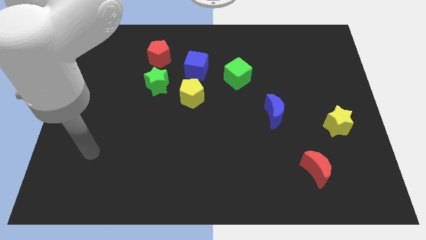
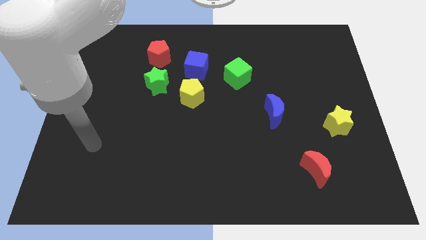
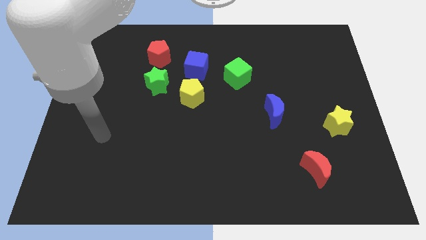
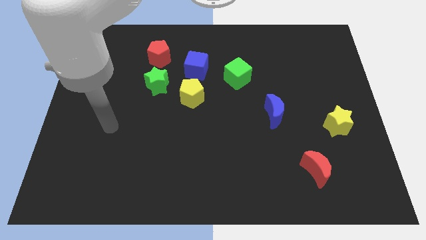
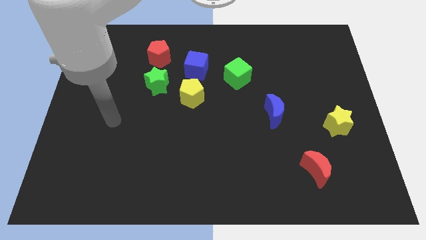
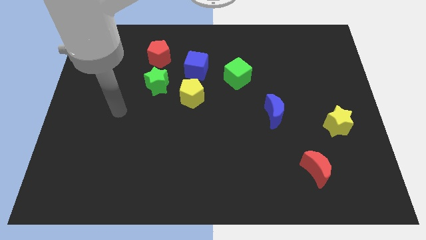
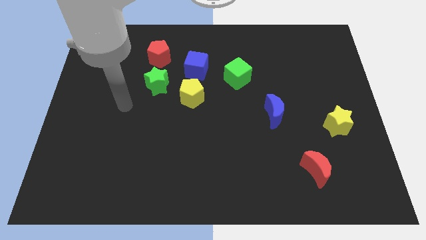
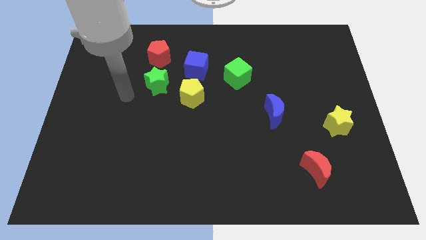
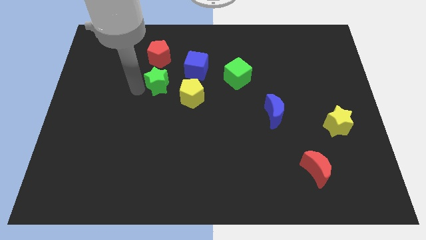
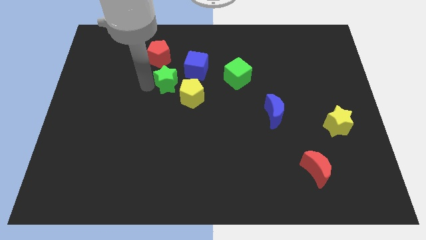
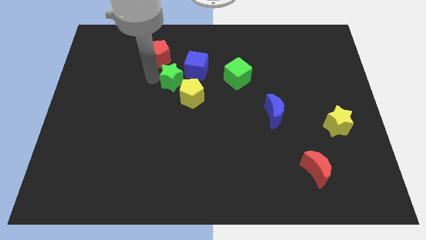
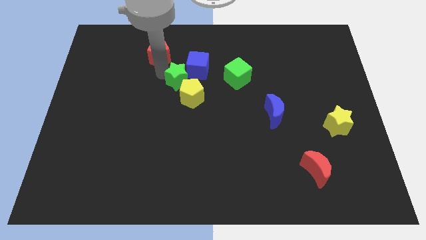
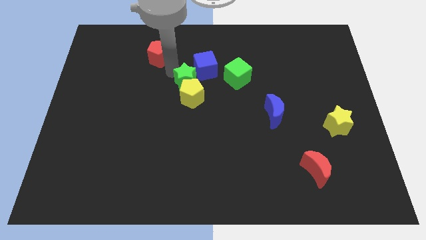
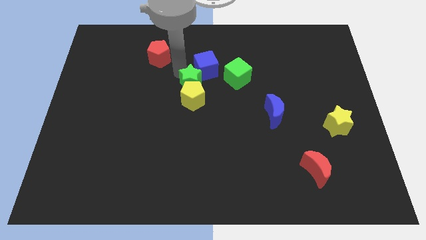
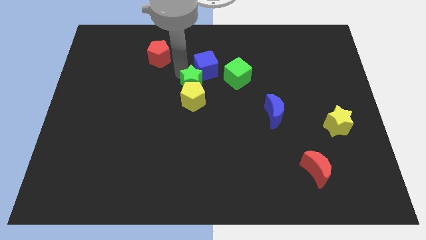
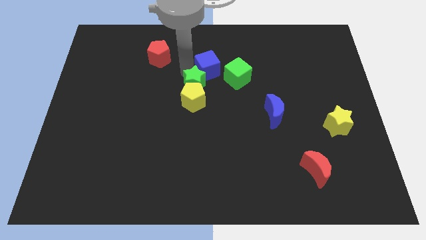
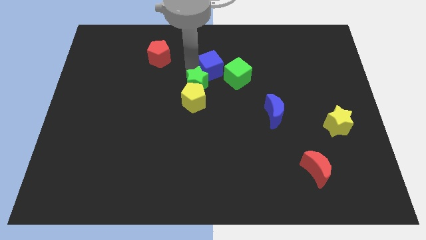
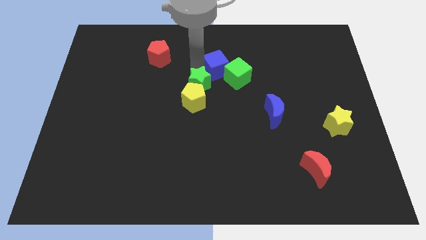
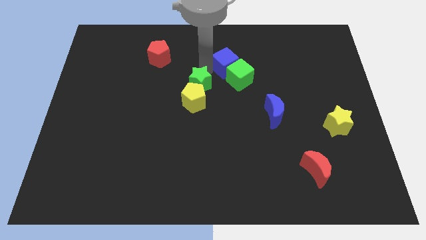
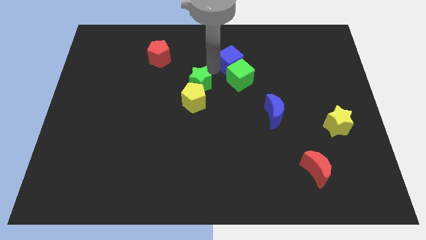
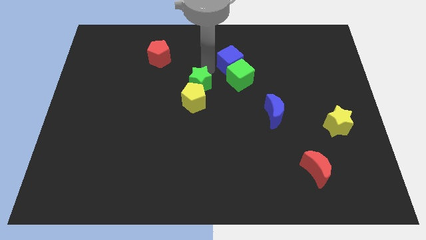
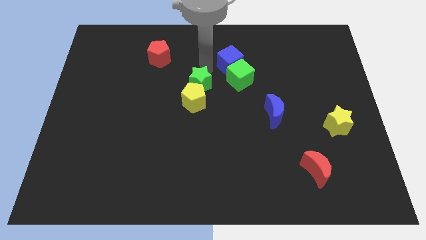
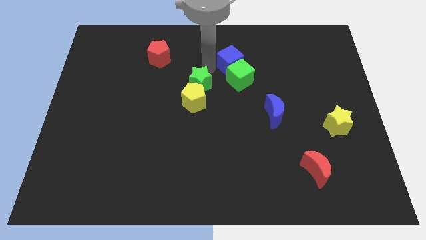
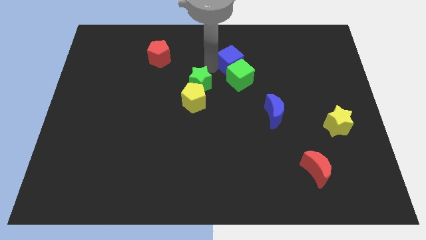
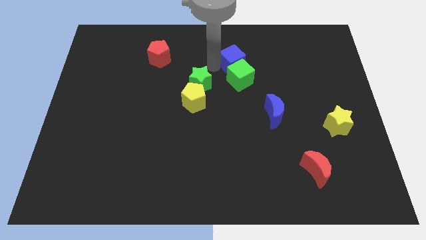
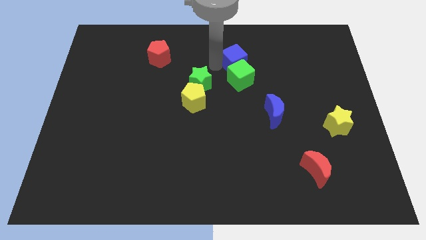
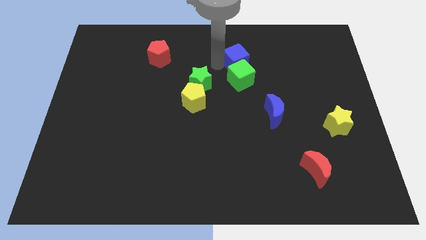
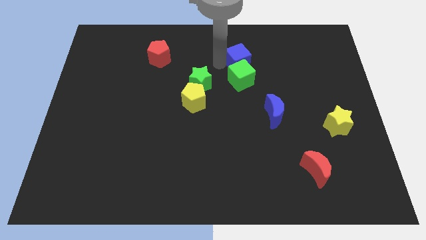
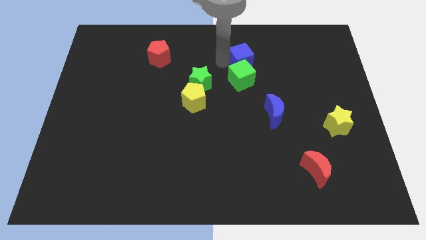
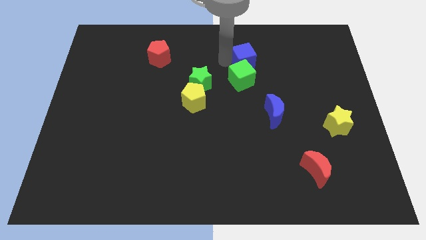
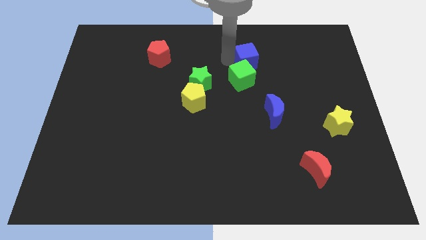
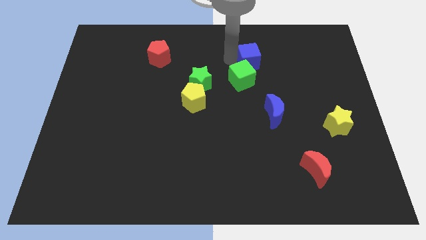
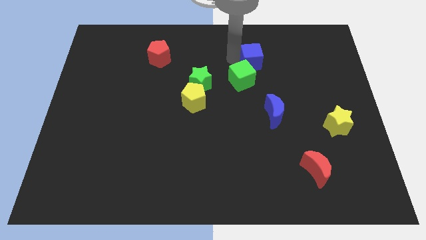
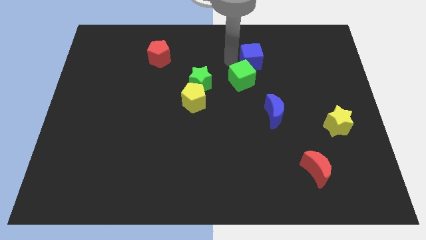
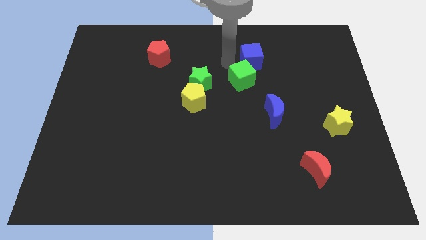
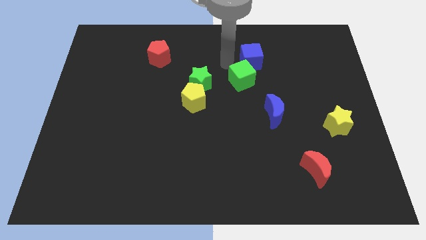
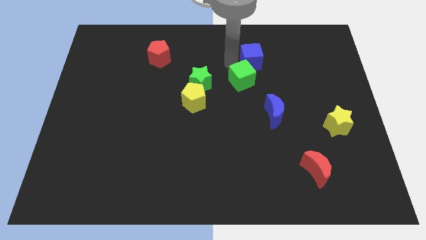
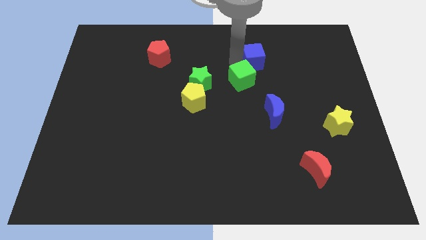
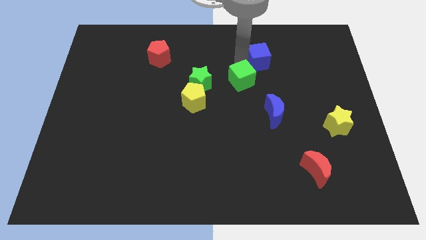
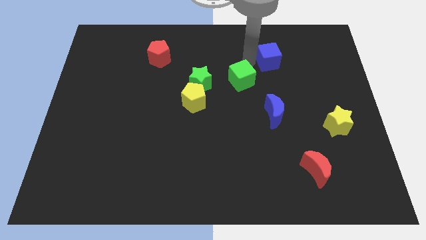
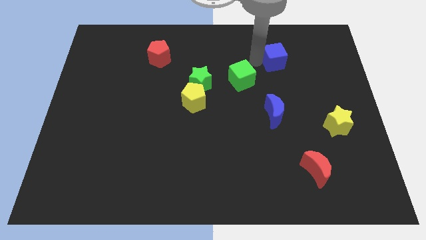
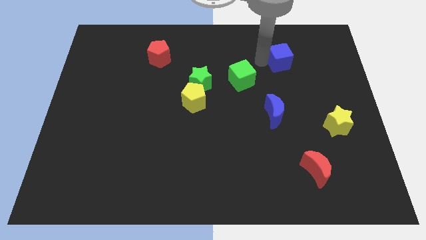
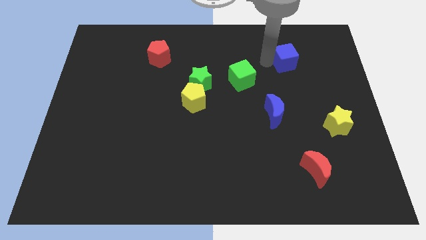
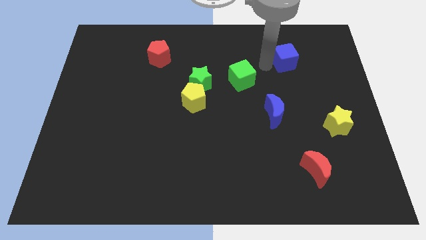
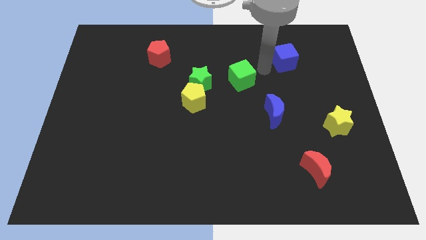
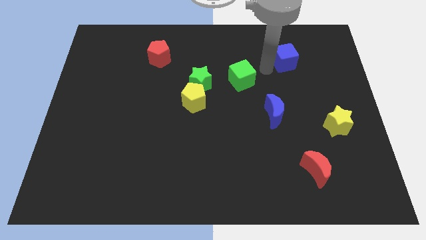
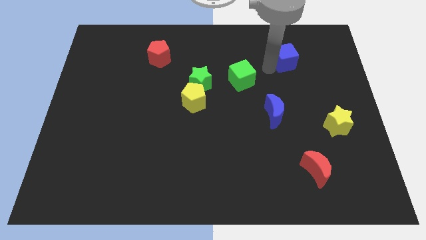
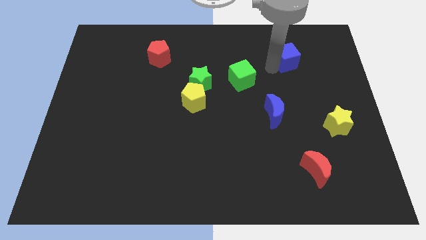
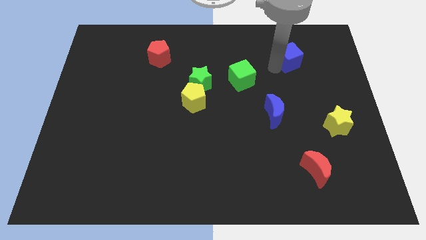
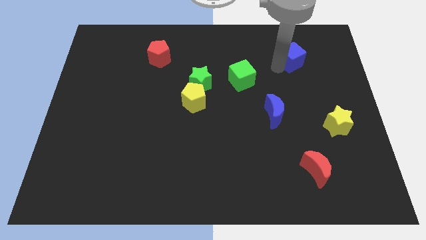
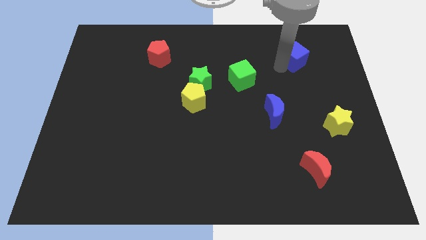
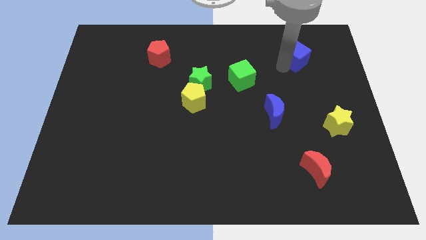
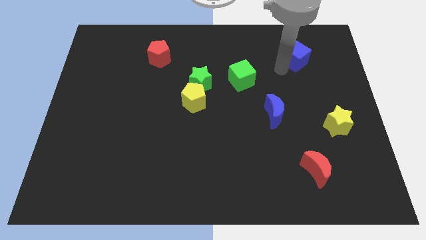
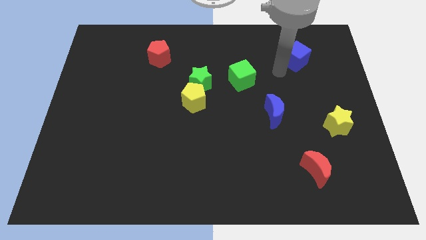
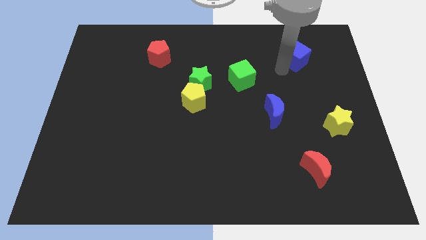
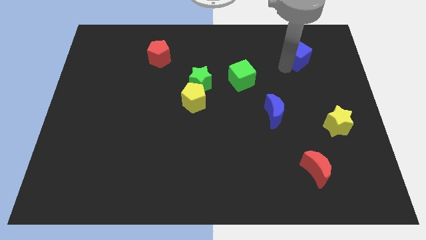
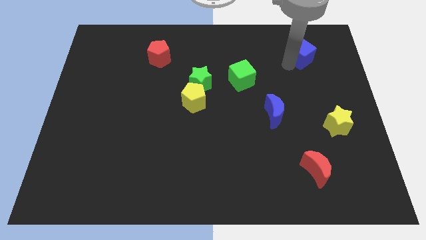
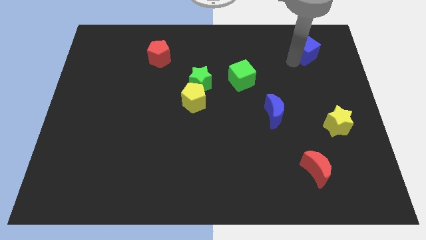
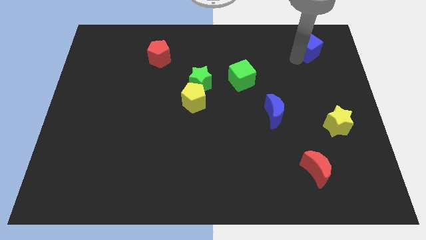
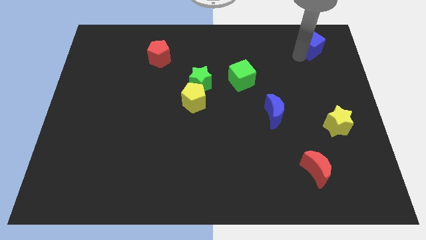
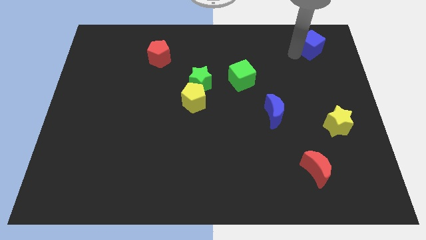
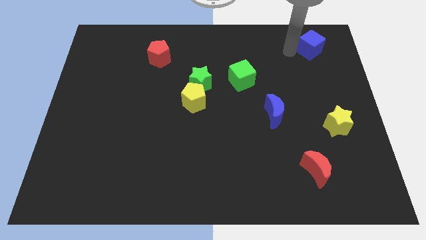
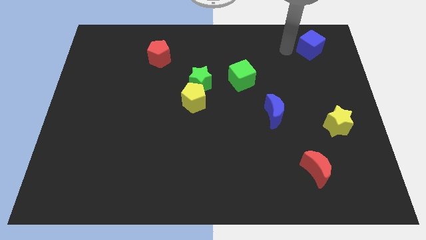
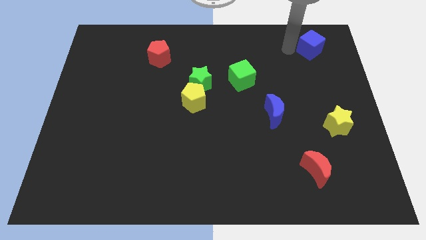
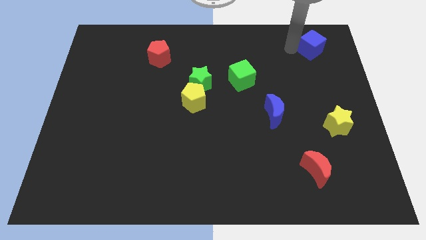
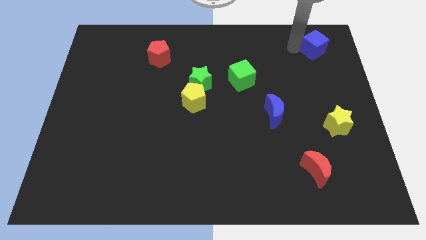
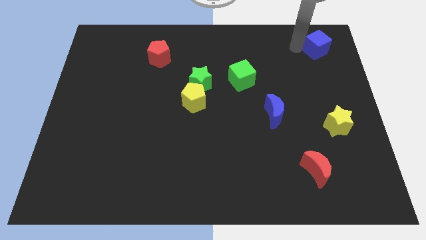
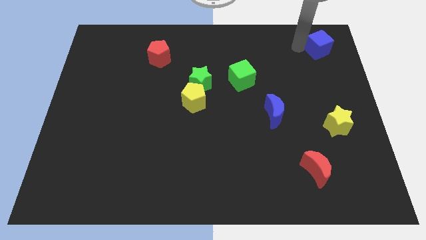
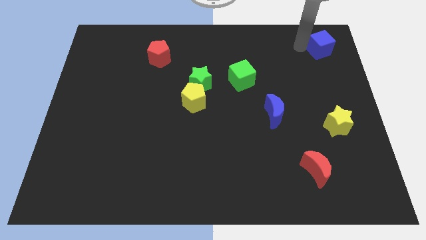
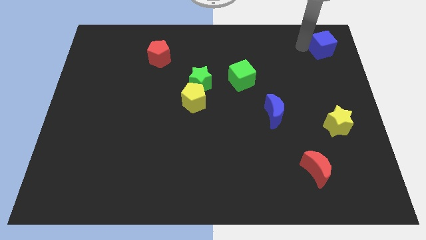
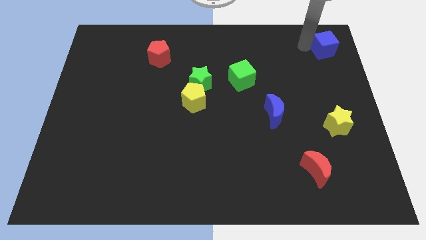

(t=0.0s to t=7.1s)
slide the blue cube to the top right corner
